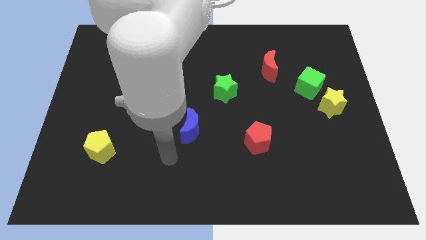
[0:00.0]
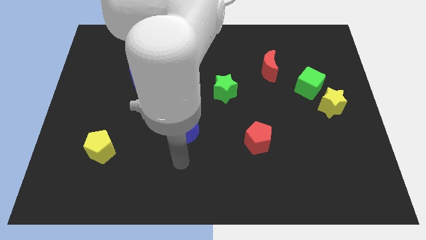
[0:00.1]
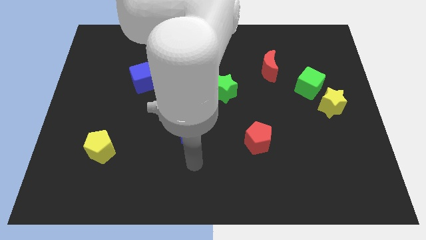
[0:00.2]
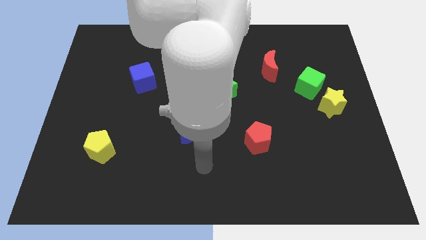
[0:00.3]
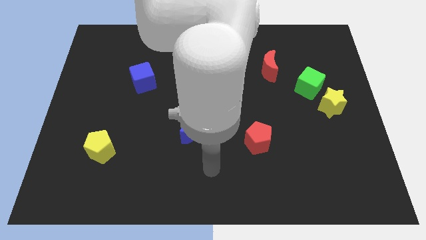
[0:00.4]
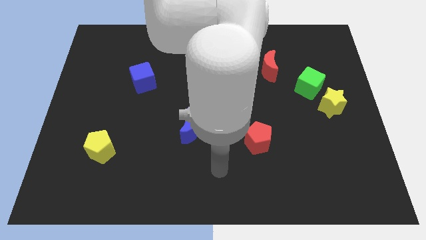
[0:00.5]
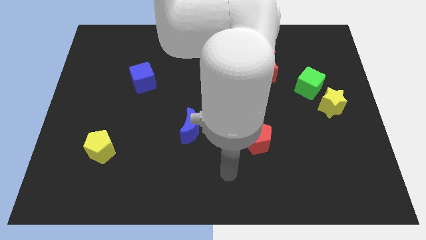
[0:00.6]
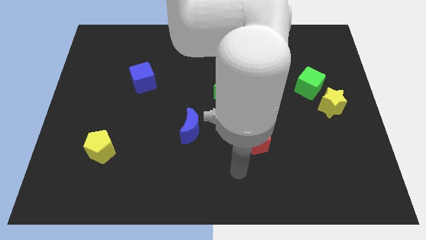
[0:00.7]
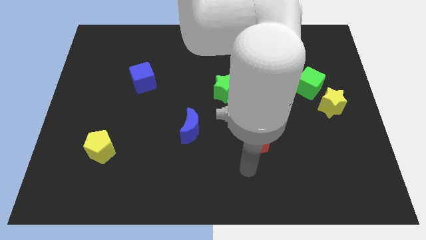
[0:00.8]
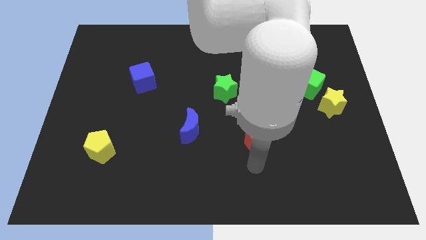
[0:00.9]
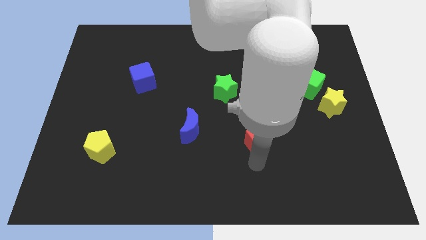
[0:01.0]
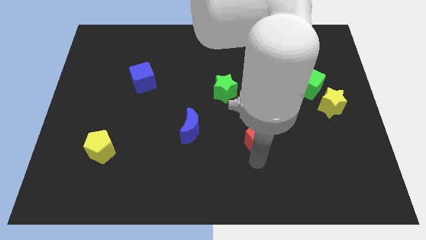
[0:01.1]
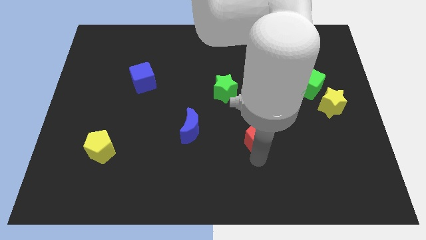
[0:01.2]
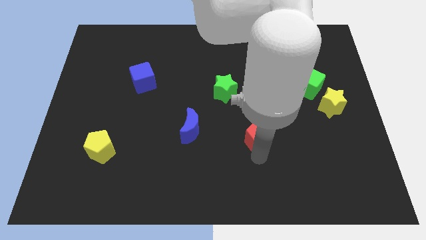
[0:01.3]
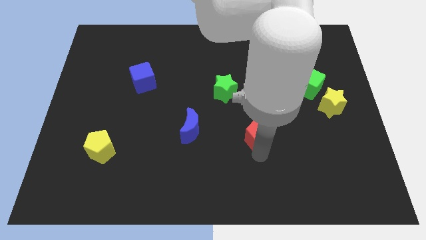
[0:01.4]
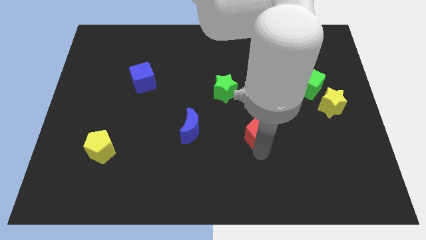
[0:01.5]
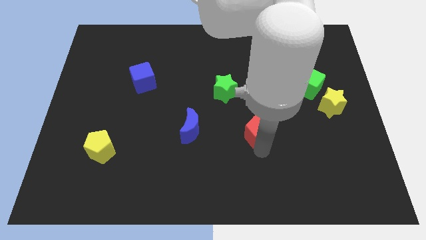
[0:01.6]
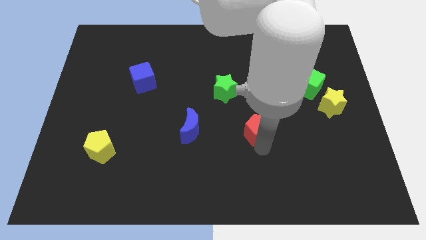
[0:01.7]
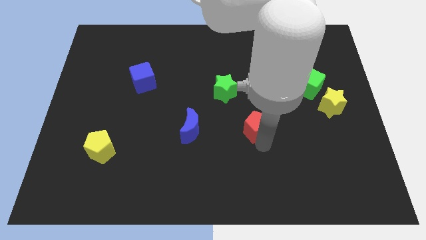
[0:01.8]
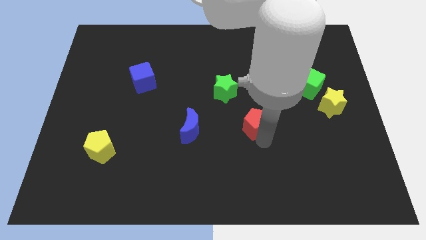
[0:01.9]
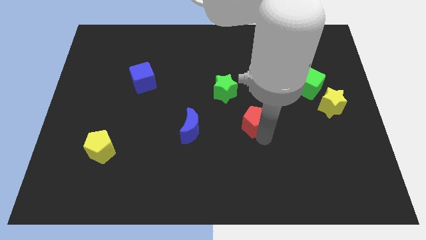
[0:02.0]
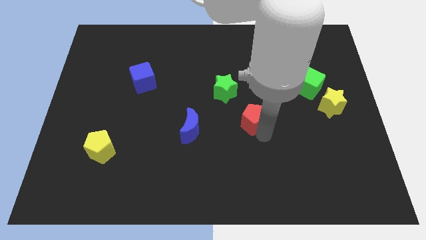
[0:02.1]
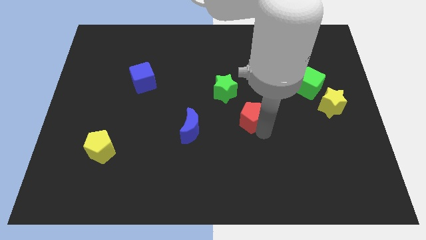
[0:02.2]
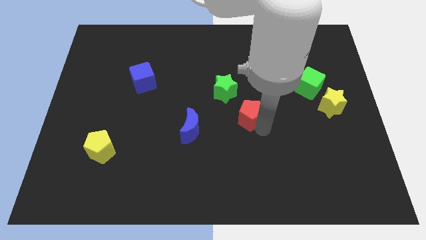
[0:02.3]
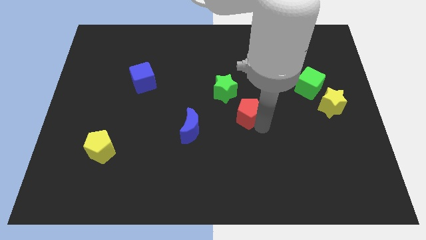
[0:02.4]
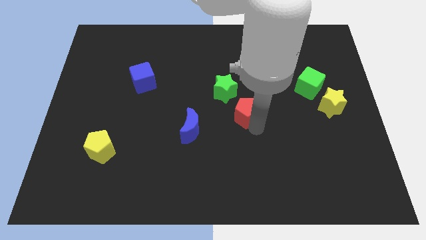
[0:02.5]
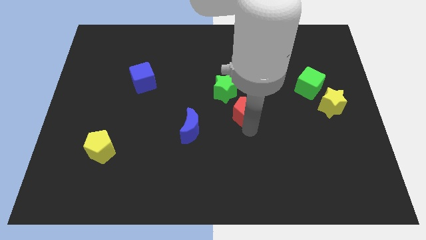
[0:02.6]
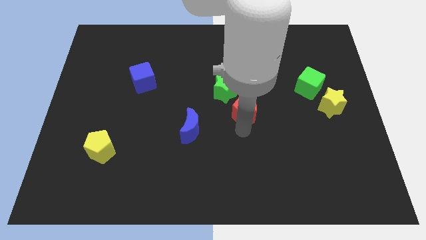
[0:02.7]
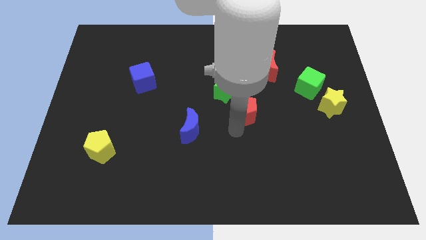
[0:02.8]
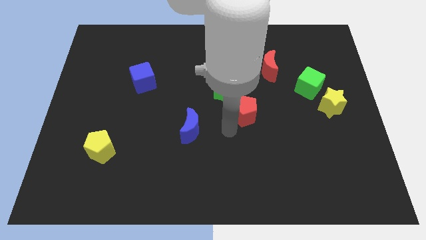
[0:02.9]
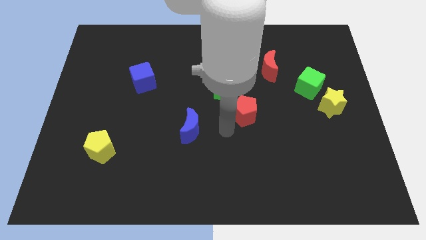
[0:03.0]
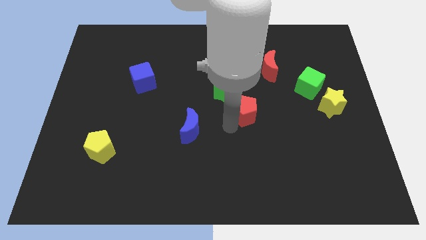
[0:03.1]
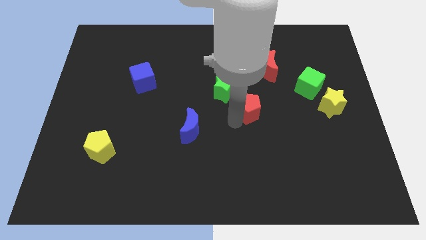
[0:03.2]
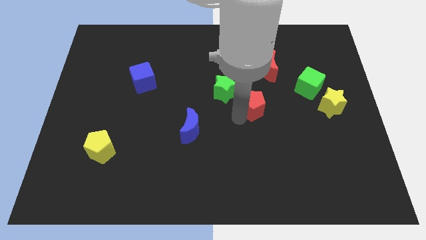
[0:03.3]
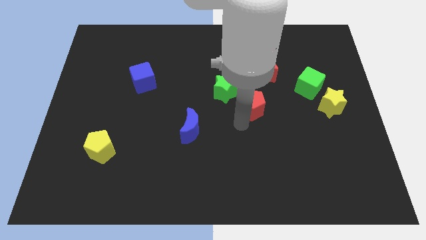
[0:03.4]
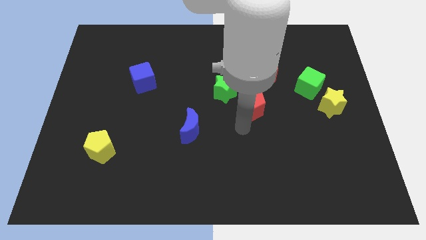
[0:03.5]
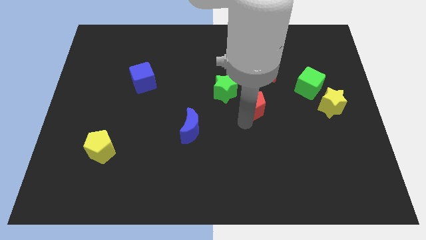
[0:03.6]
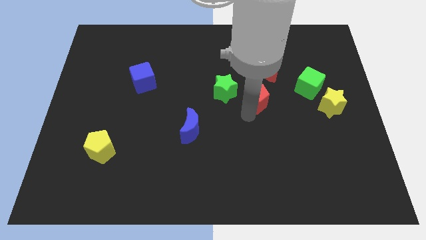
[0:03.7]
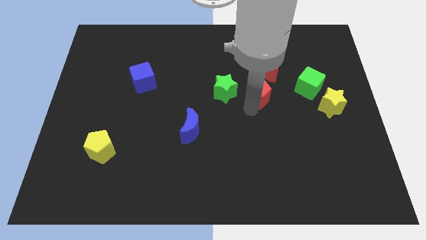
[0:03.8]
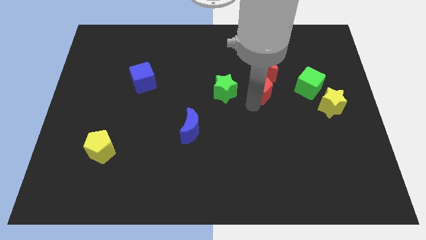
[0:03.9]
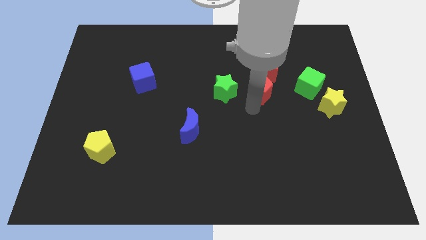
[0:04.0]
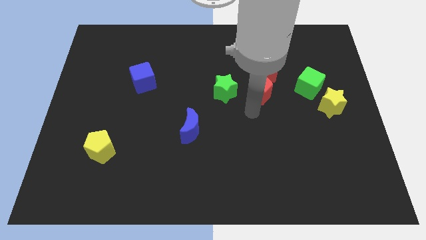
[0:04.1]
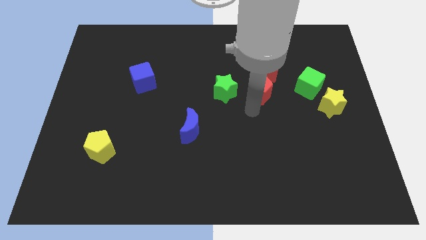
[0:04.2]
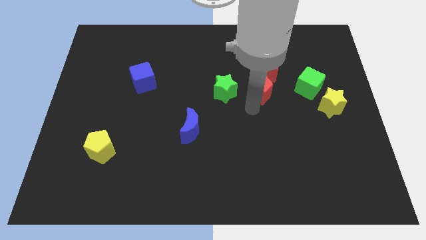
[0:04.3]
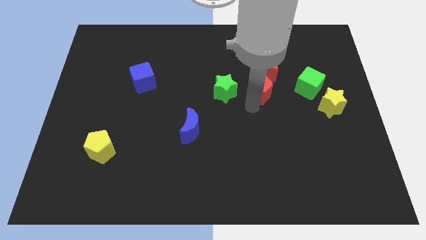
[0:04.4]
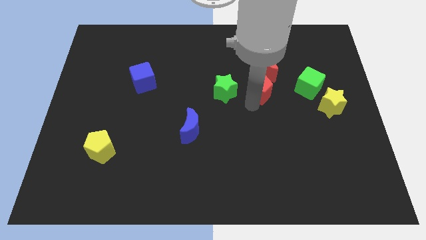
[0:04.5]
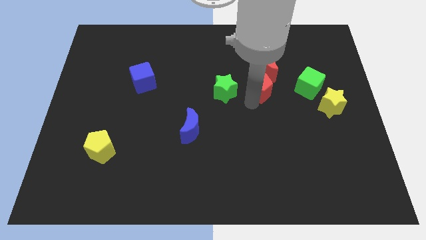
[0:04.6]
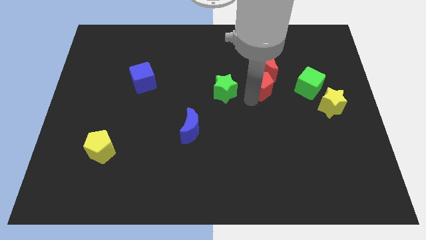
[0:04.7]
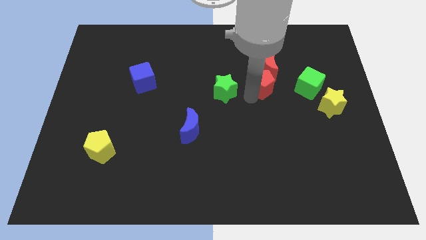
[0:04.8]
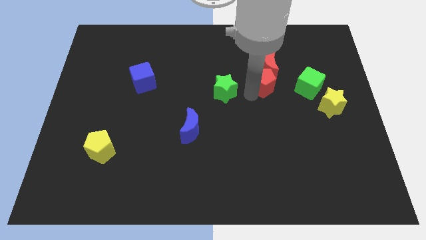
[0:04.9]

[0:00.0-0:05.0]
push the red pentagon close to the red moon

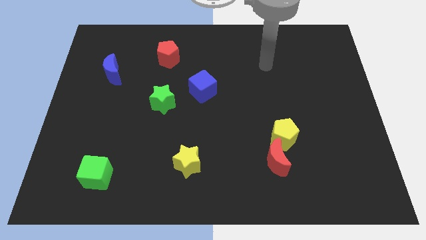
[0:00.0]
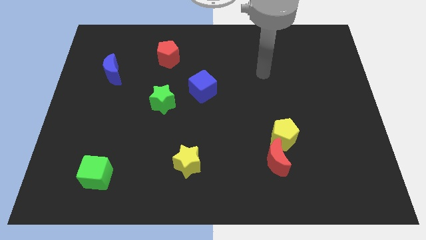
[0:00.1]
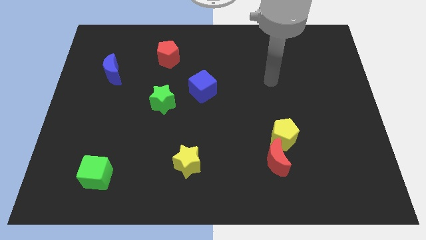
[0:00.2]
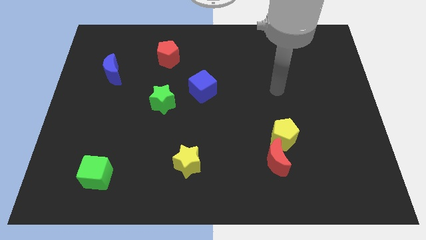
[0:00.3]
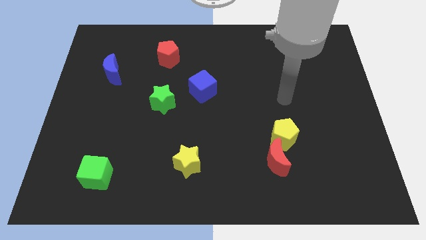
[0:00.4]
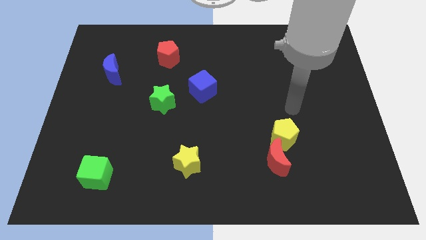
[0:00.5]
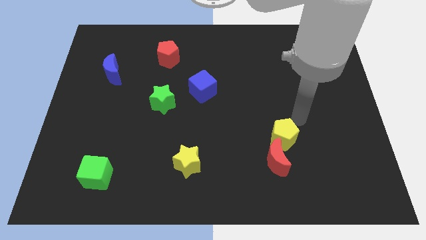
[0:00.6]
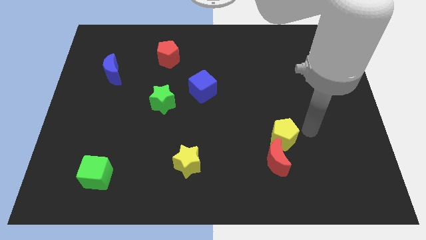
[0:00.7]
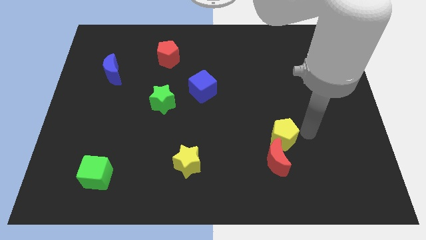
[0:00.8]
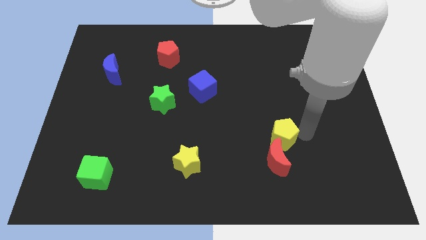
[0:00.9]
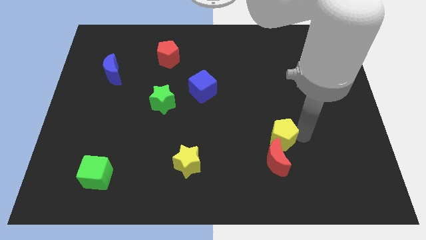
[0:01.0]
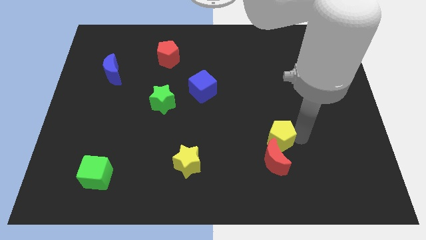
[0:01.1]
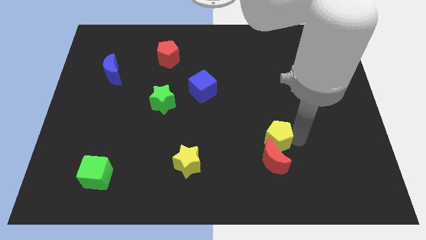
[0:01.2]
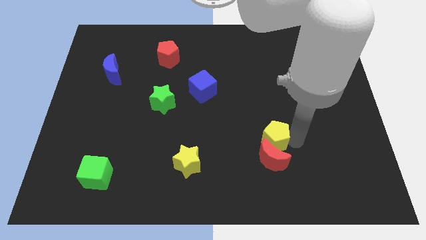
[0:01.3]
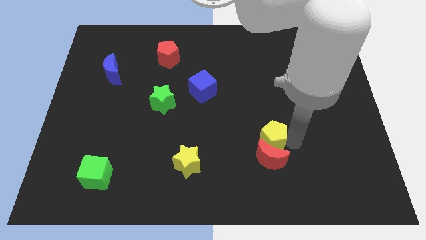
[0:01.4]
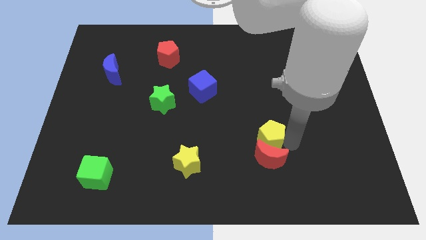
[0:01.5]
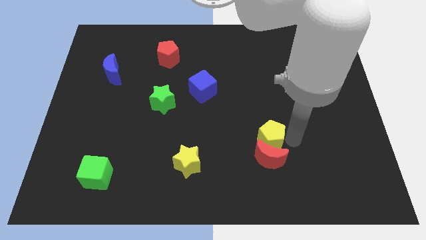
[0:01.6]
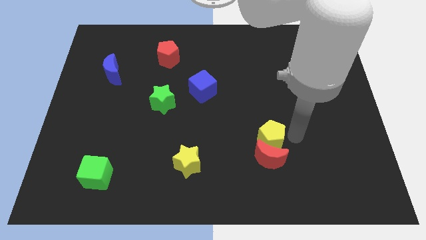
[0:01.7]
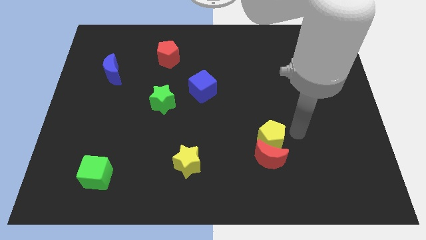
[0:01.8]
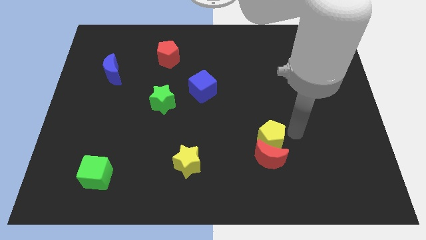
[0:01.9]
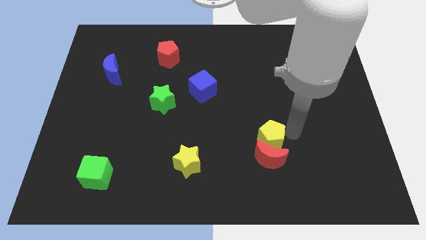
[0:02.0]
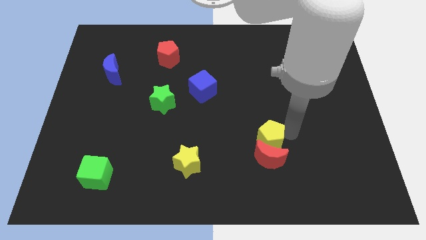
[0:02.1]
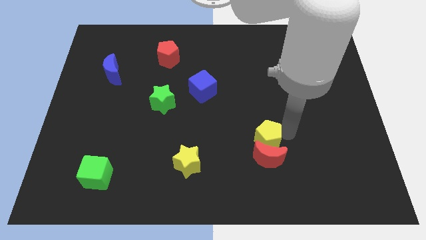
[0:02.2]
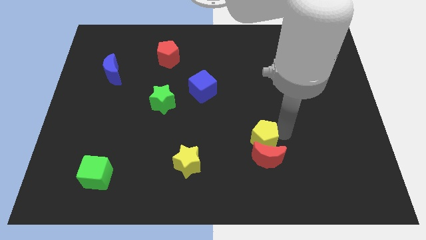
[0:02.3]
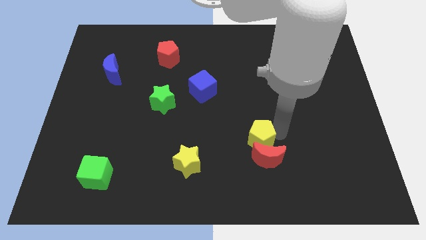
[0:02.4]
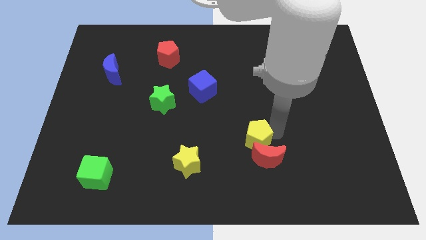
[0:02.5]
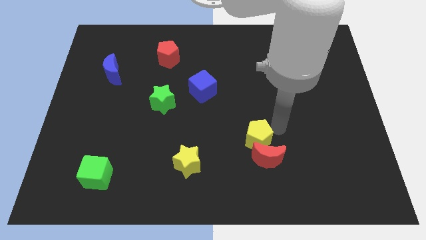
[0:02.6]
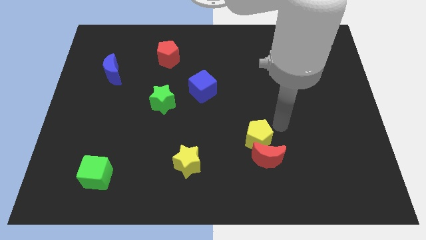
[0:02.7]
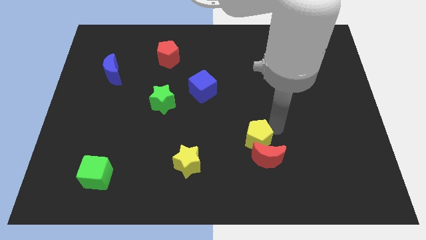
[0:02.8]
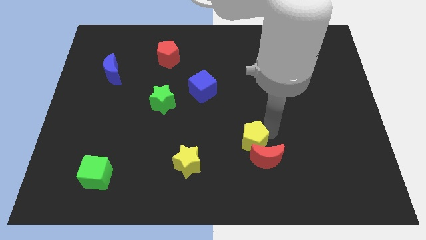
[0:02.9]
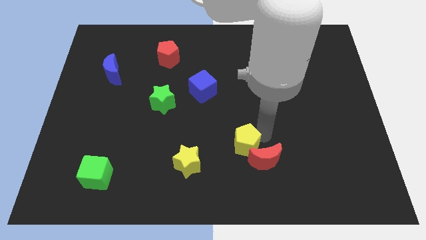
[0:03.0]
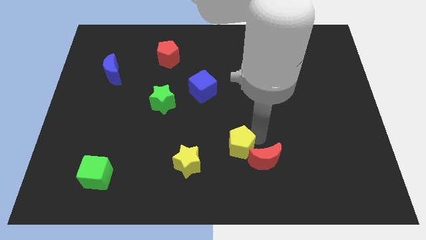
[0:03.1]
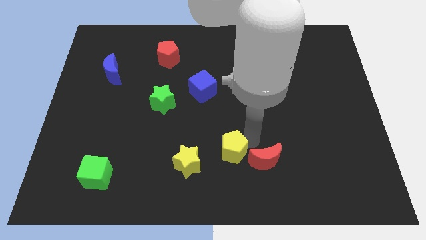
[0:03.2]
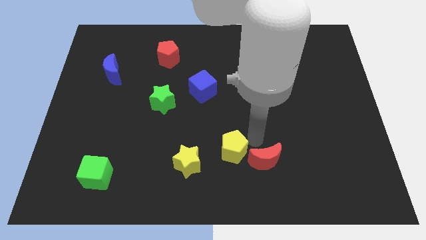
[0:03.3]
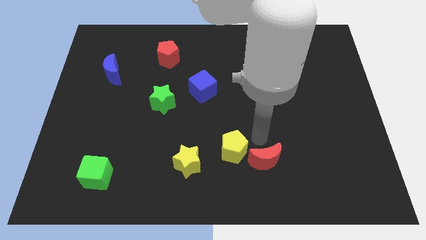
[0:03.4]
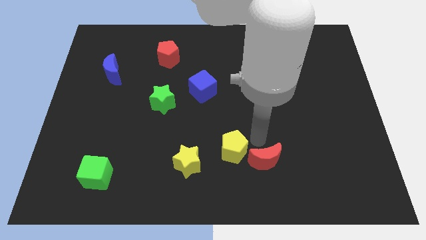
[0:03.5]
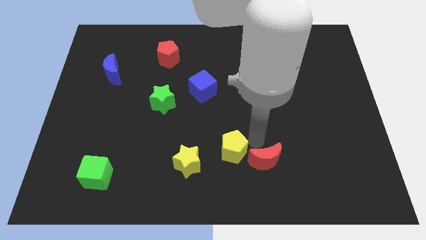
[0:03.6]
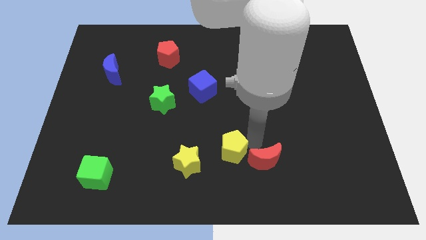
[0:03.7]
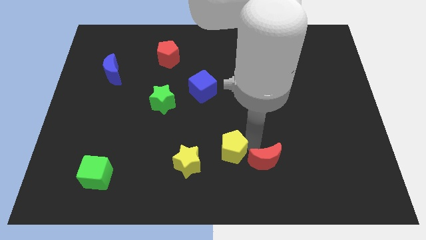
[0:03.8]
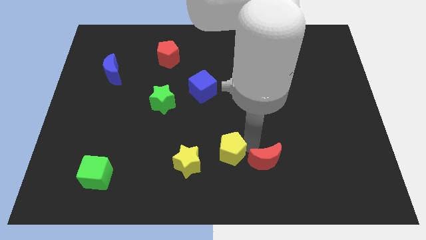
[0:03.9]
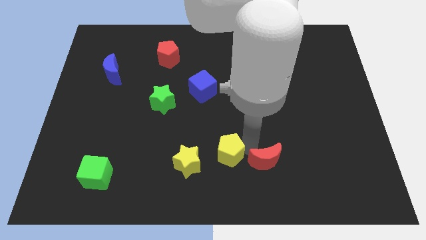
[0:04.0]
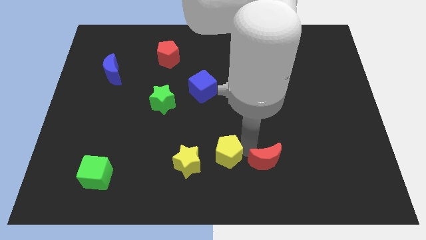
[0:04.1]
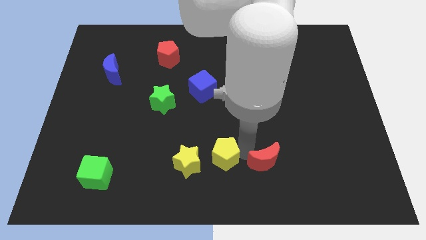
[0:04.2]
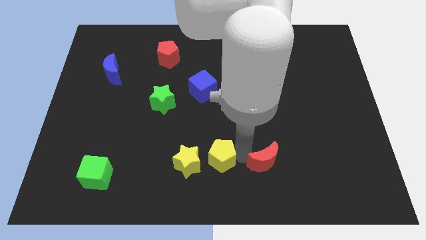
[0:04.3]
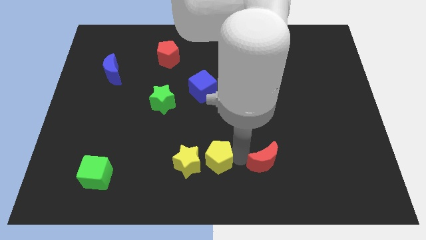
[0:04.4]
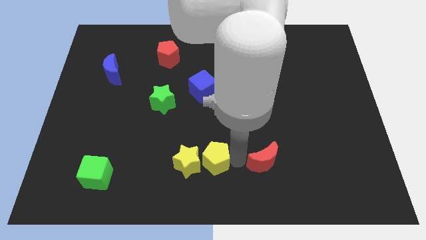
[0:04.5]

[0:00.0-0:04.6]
move the yellow pentagon close to the yellow star
